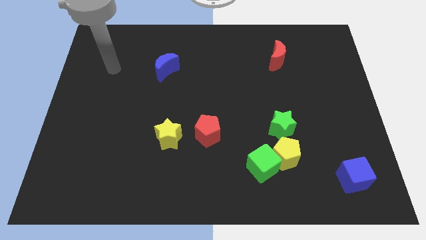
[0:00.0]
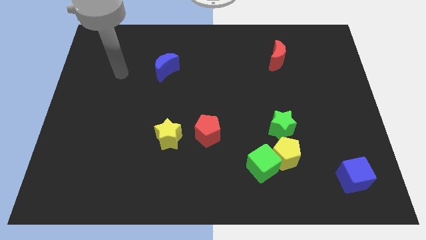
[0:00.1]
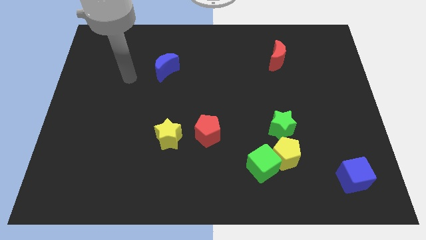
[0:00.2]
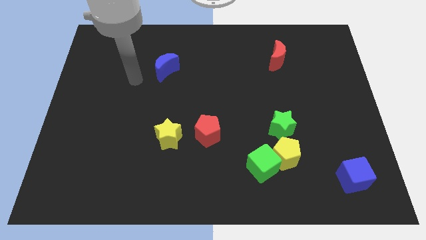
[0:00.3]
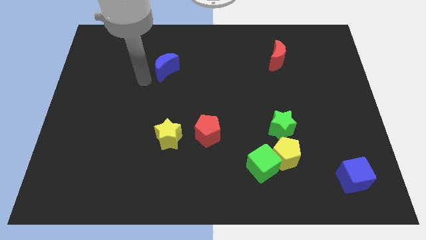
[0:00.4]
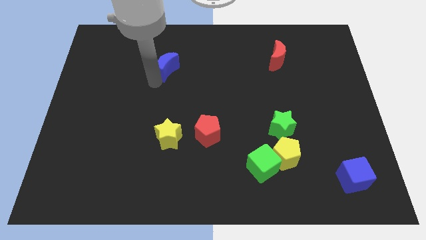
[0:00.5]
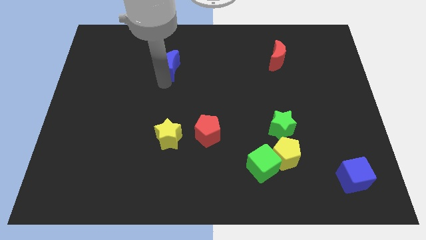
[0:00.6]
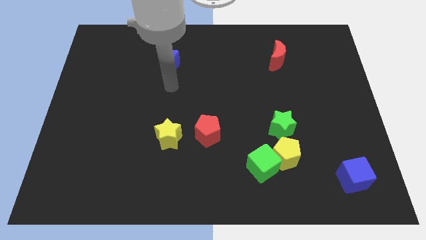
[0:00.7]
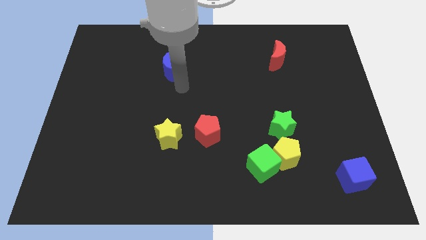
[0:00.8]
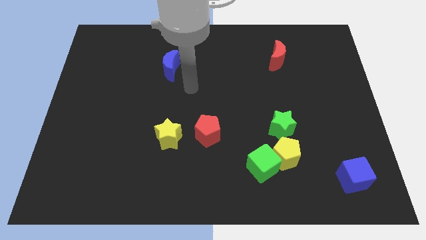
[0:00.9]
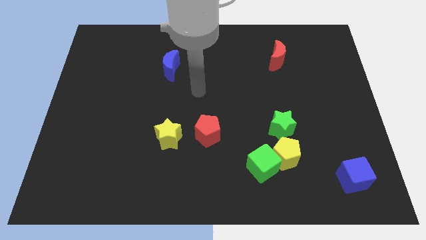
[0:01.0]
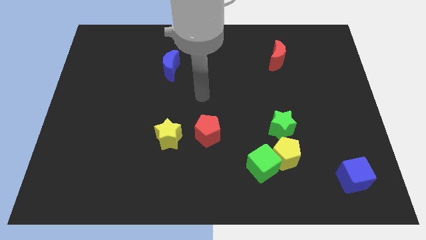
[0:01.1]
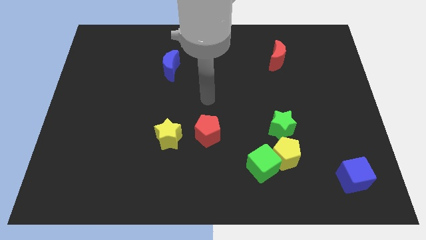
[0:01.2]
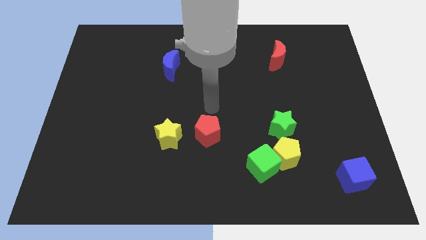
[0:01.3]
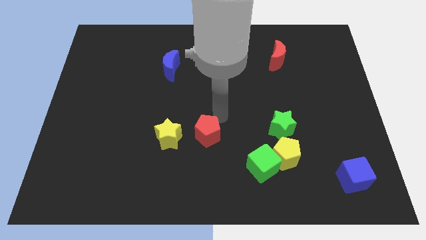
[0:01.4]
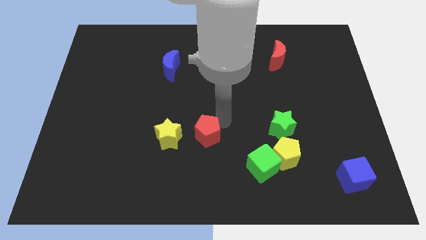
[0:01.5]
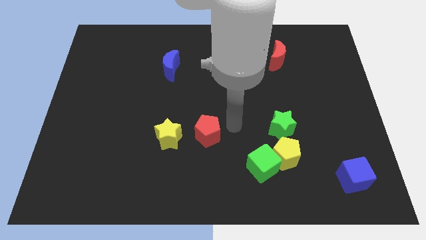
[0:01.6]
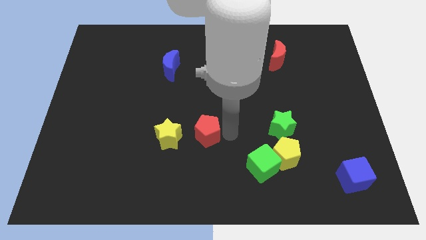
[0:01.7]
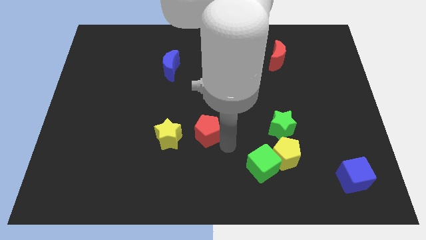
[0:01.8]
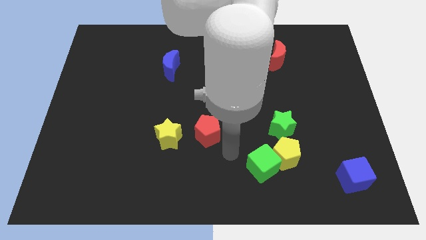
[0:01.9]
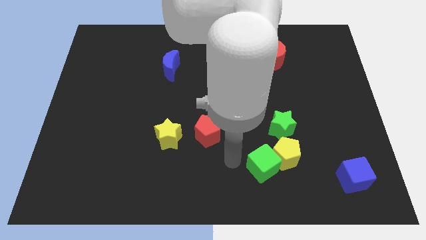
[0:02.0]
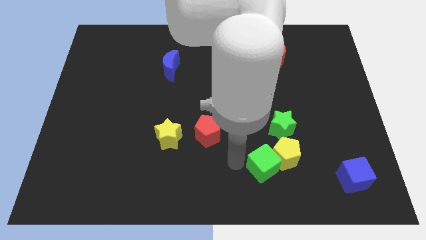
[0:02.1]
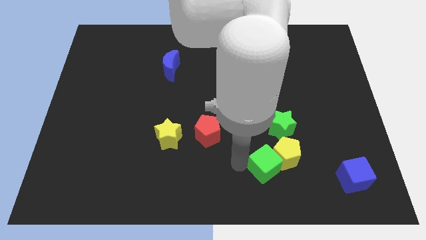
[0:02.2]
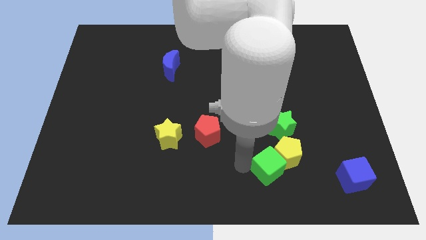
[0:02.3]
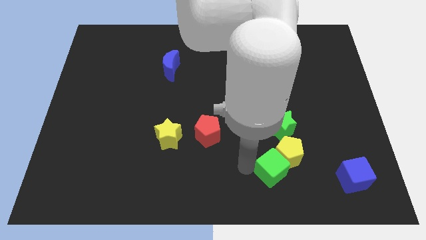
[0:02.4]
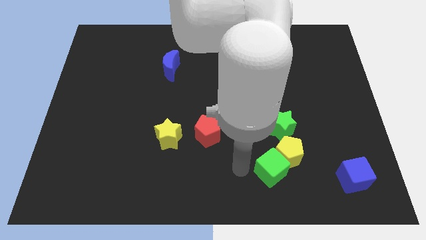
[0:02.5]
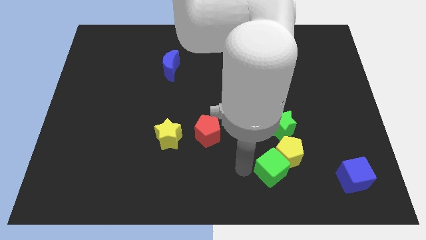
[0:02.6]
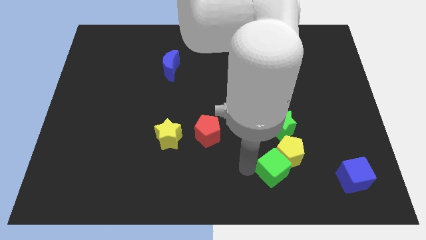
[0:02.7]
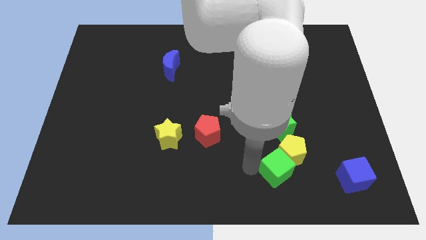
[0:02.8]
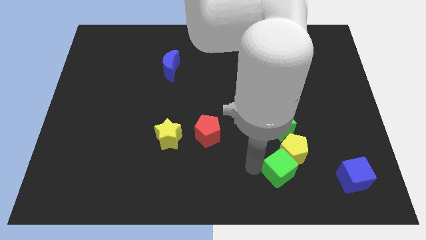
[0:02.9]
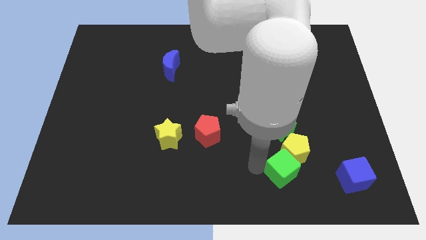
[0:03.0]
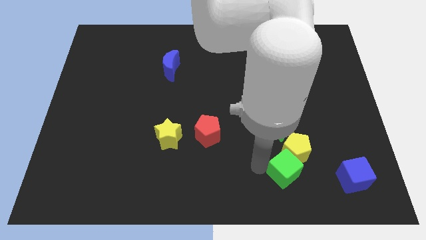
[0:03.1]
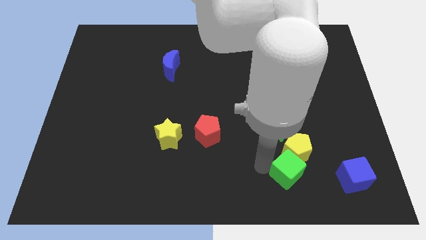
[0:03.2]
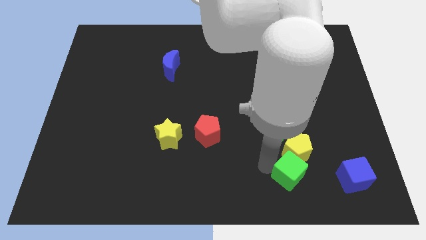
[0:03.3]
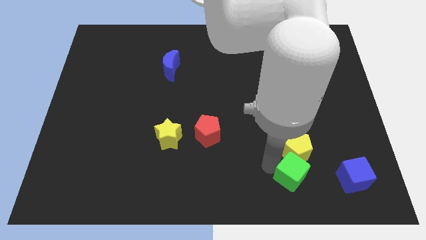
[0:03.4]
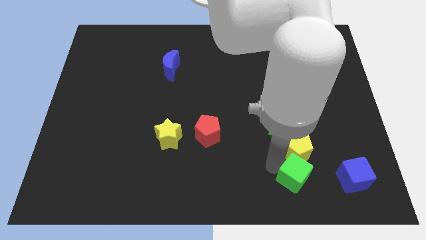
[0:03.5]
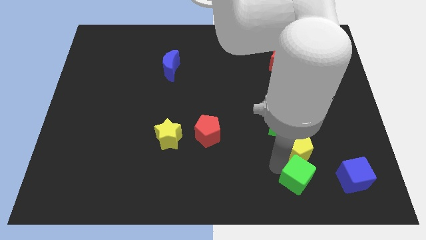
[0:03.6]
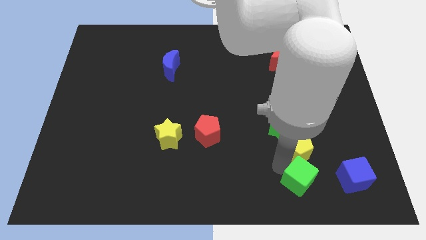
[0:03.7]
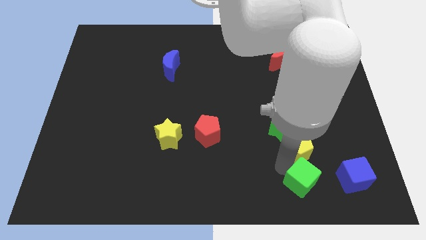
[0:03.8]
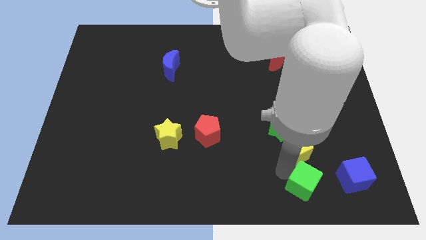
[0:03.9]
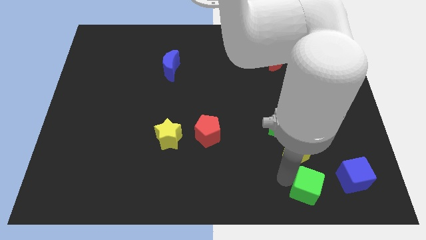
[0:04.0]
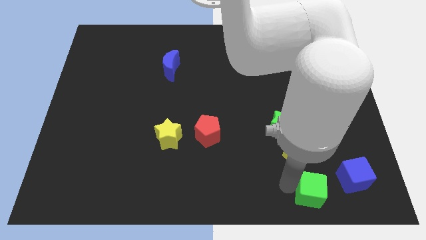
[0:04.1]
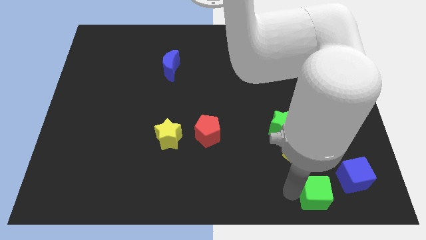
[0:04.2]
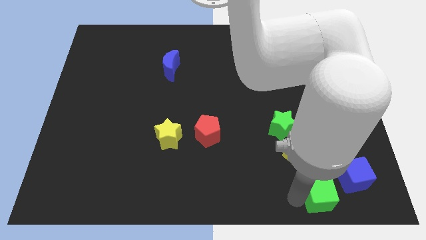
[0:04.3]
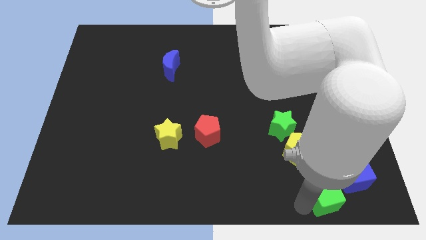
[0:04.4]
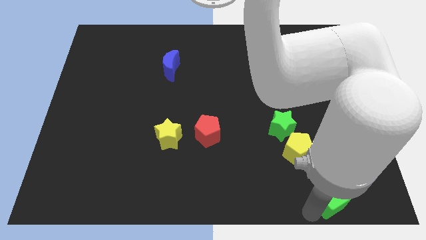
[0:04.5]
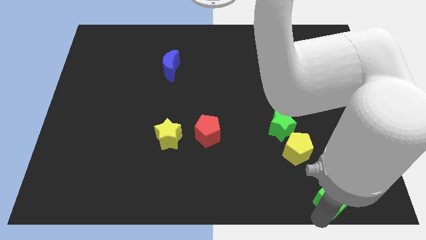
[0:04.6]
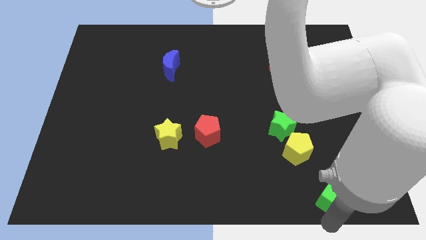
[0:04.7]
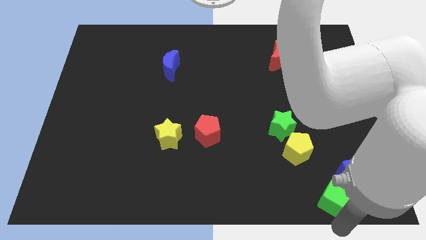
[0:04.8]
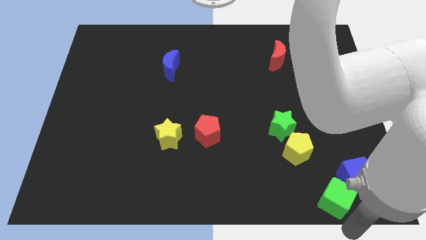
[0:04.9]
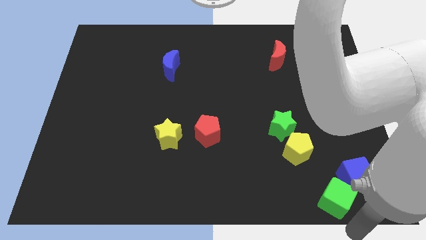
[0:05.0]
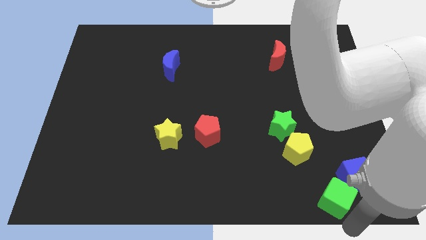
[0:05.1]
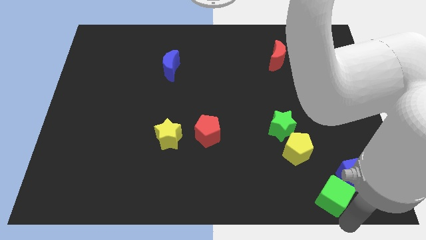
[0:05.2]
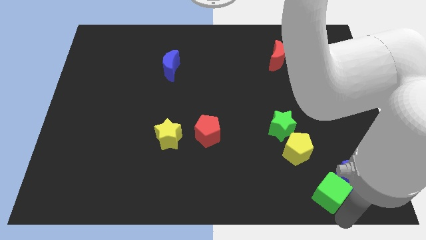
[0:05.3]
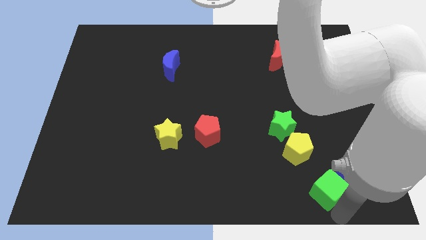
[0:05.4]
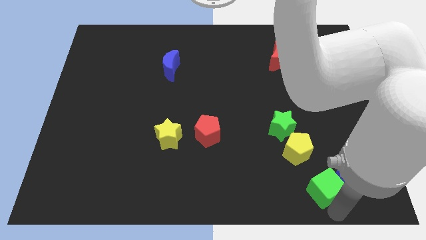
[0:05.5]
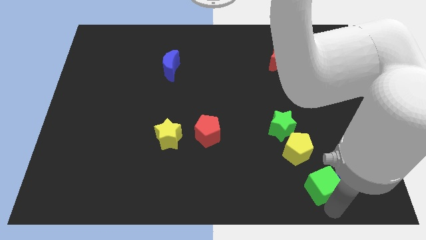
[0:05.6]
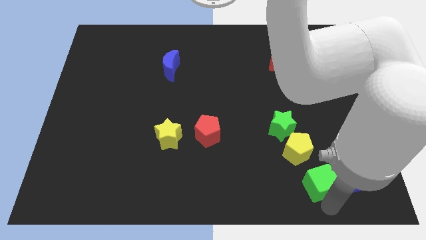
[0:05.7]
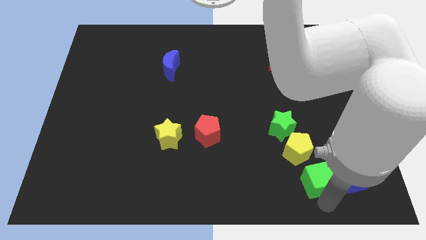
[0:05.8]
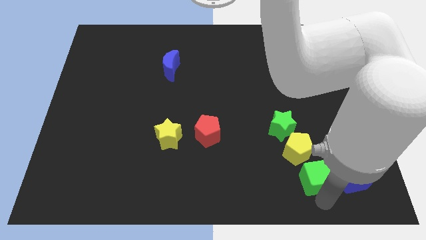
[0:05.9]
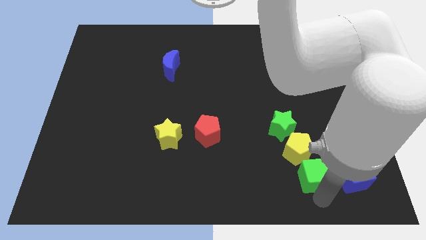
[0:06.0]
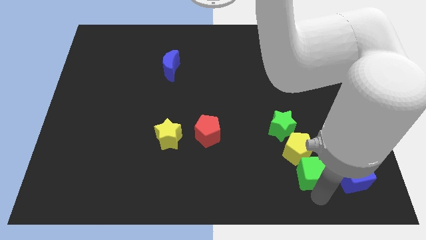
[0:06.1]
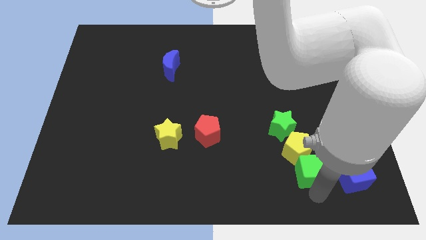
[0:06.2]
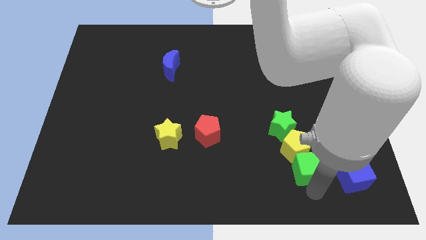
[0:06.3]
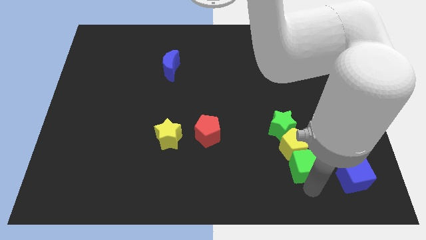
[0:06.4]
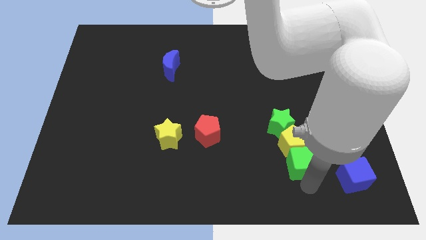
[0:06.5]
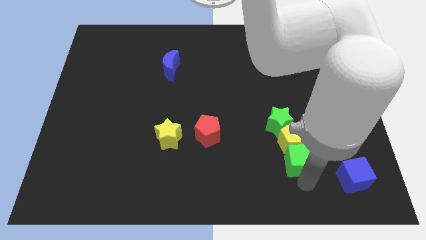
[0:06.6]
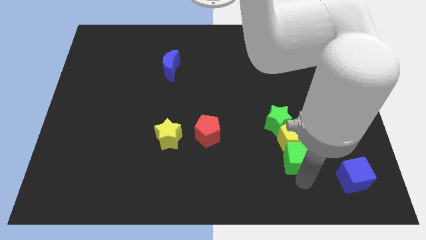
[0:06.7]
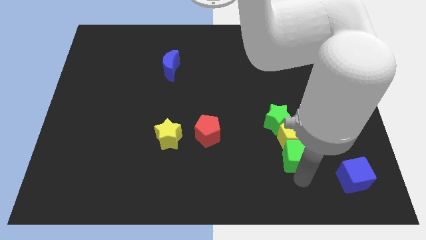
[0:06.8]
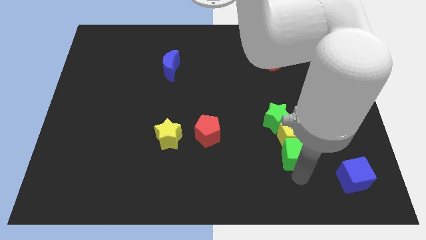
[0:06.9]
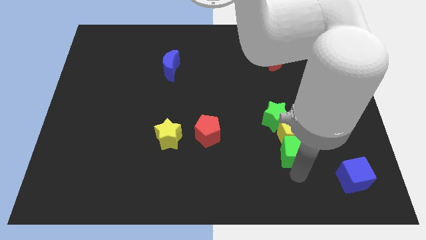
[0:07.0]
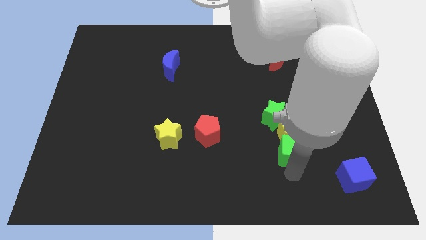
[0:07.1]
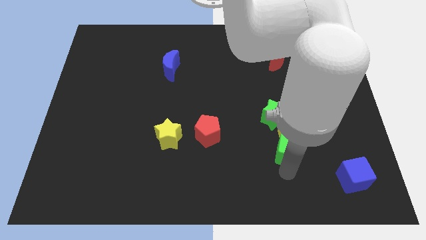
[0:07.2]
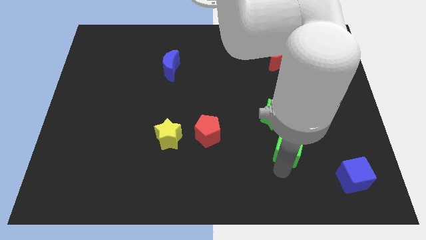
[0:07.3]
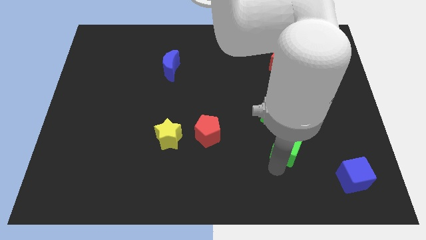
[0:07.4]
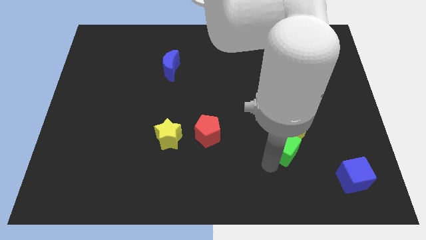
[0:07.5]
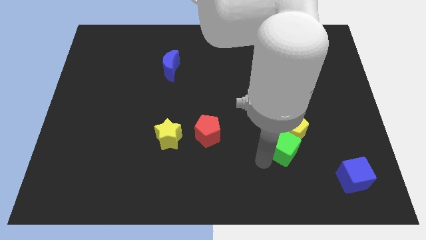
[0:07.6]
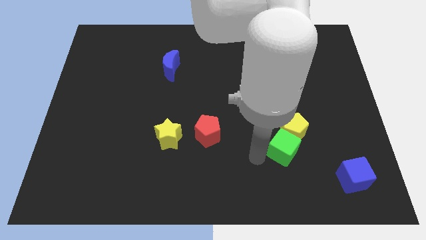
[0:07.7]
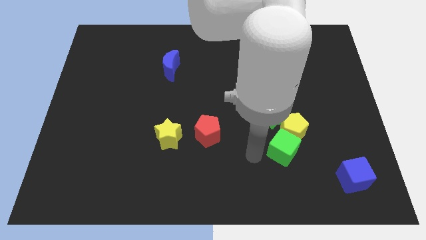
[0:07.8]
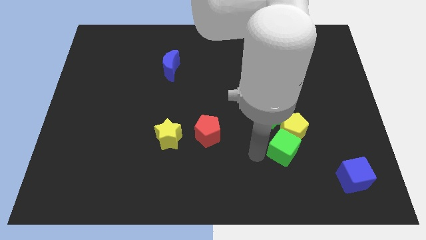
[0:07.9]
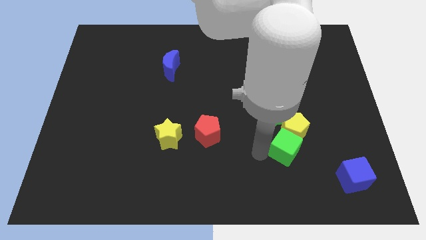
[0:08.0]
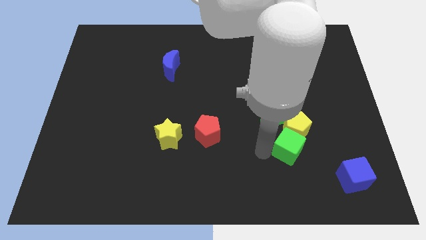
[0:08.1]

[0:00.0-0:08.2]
slide the green cube a little bit up and then right
